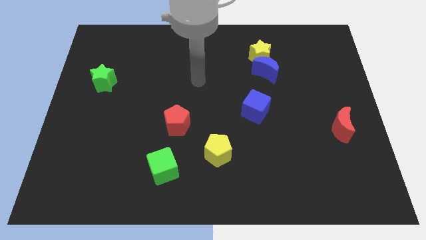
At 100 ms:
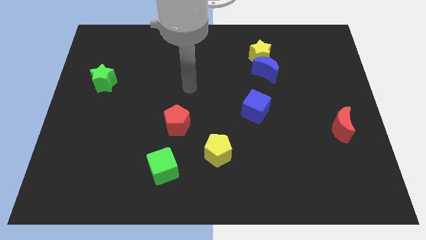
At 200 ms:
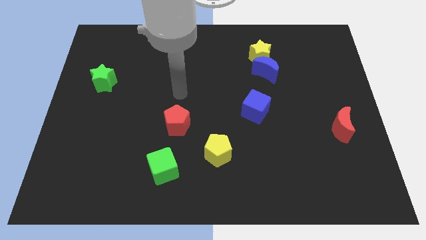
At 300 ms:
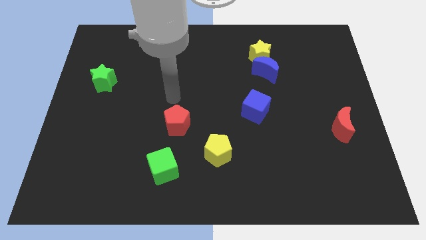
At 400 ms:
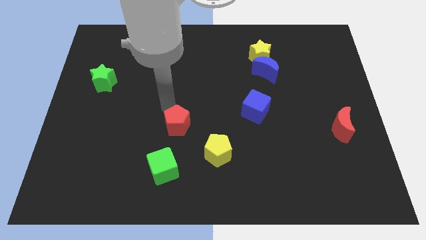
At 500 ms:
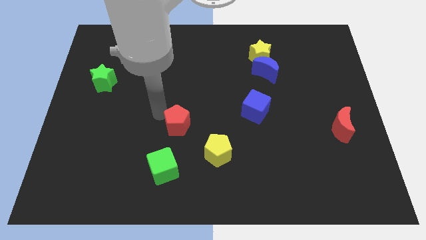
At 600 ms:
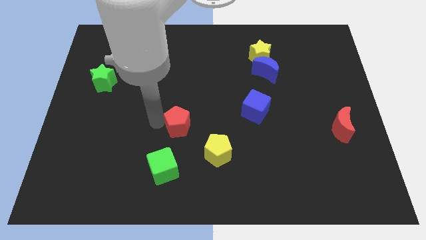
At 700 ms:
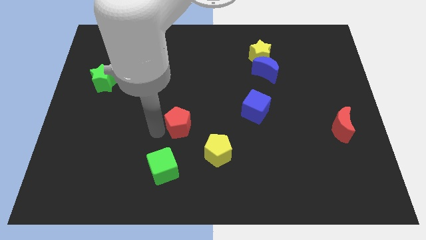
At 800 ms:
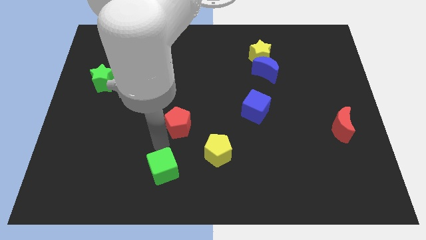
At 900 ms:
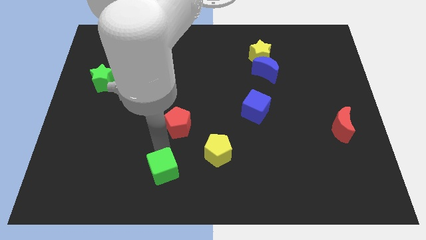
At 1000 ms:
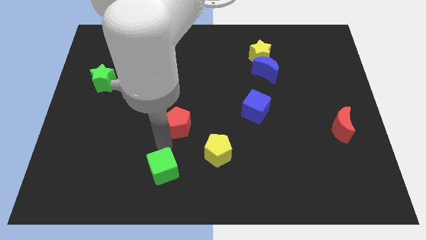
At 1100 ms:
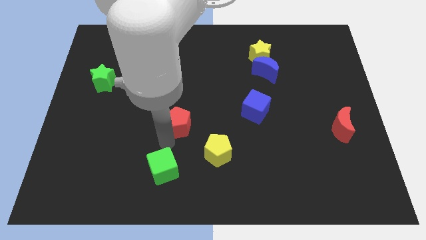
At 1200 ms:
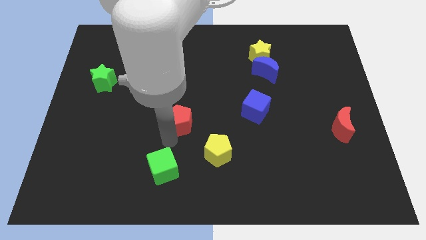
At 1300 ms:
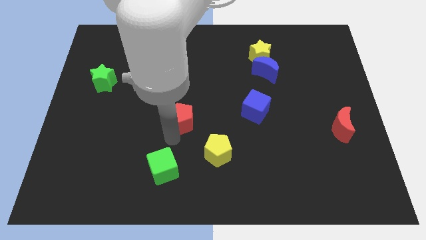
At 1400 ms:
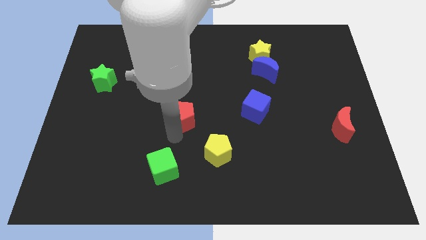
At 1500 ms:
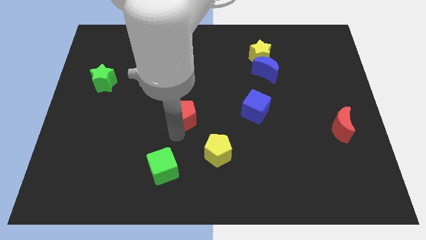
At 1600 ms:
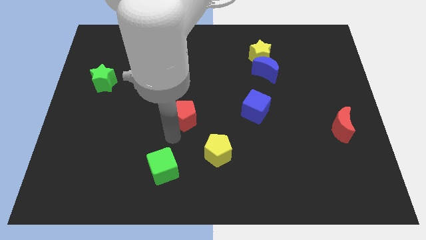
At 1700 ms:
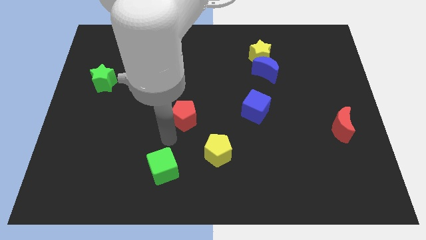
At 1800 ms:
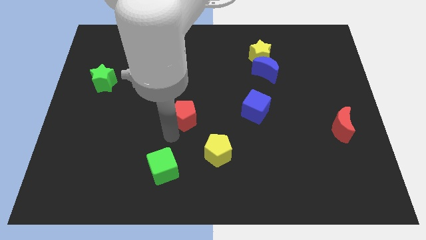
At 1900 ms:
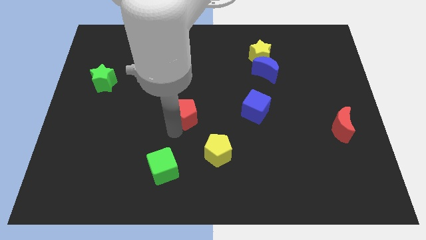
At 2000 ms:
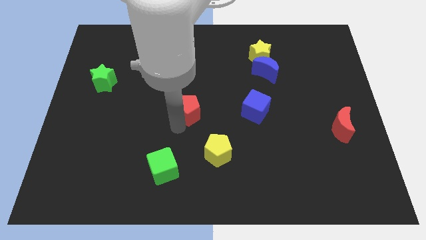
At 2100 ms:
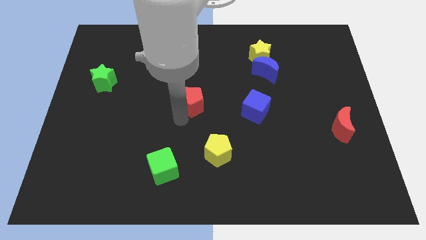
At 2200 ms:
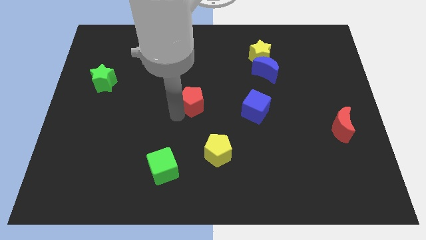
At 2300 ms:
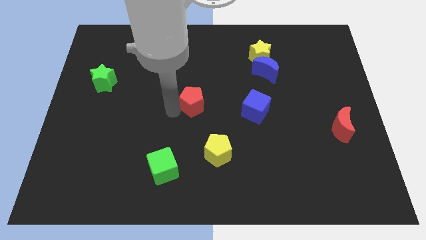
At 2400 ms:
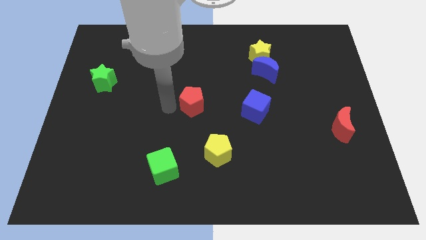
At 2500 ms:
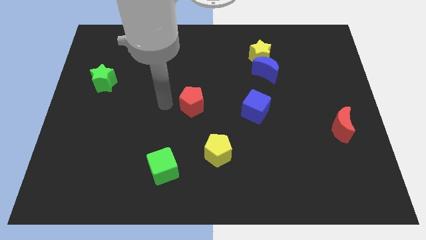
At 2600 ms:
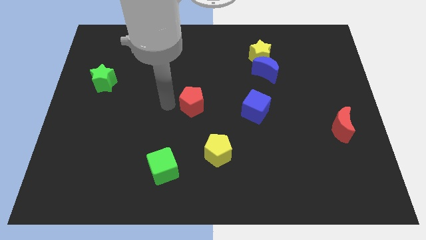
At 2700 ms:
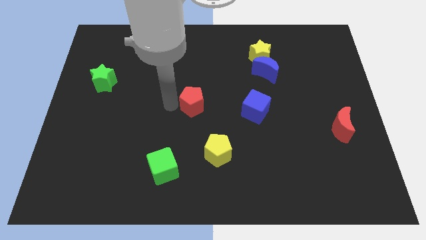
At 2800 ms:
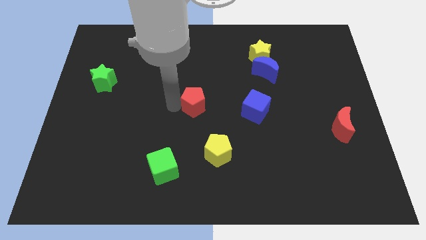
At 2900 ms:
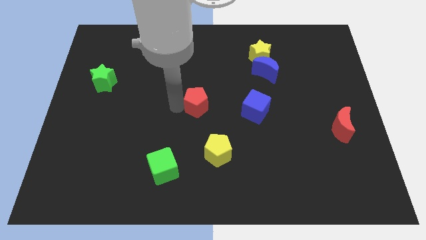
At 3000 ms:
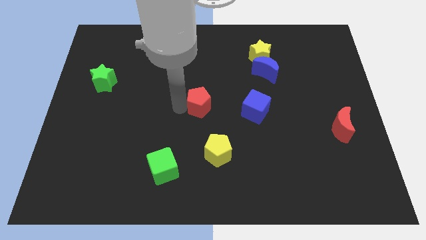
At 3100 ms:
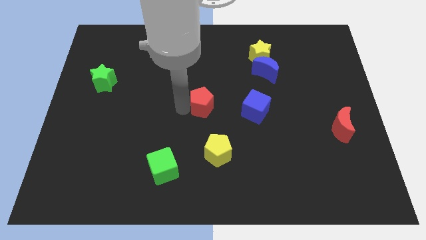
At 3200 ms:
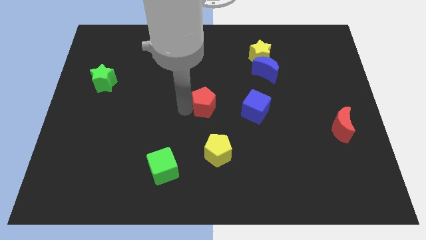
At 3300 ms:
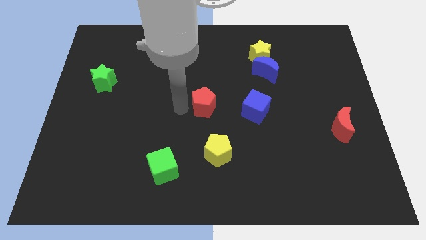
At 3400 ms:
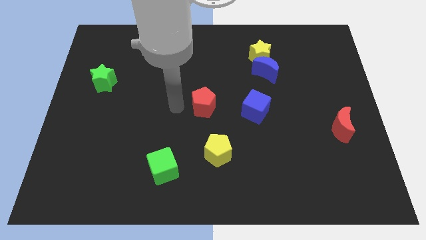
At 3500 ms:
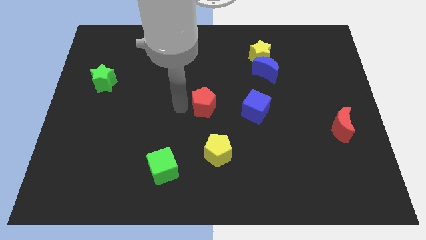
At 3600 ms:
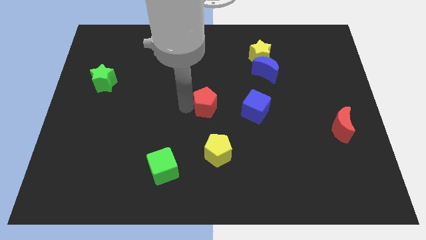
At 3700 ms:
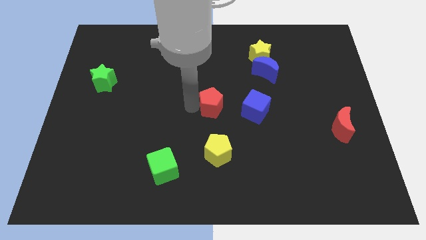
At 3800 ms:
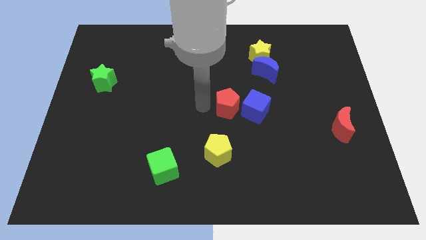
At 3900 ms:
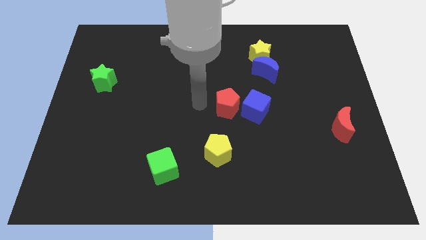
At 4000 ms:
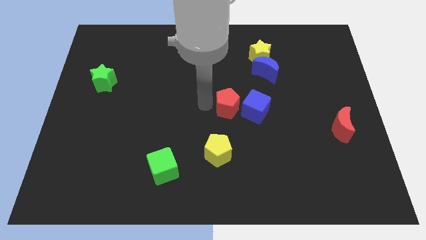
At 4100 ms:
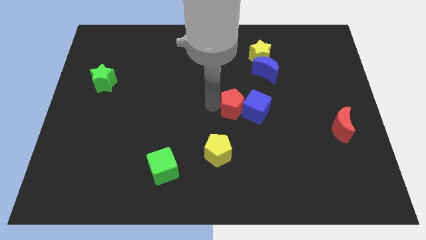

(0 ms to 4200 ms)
push the red pentagon to the blue cube

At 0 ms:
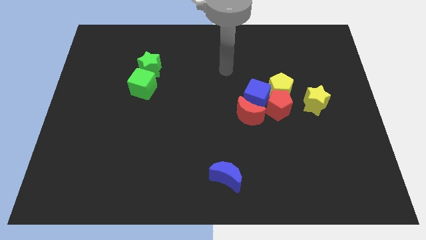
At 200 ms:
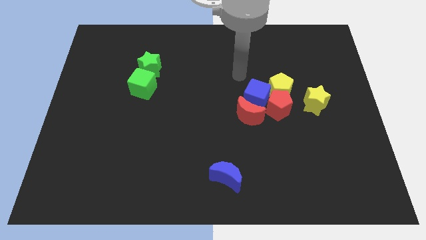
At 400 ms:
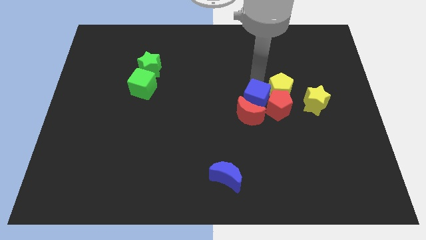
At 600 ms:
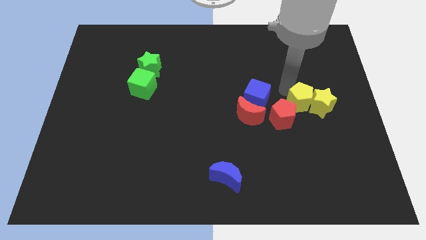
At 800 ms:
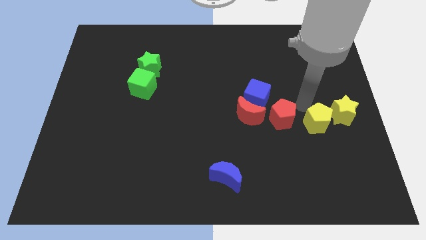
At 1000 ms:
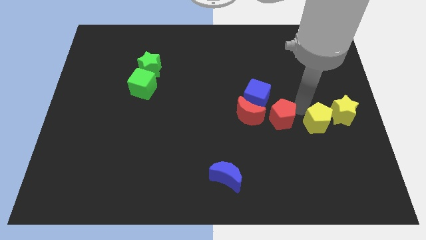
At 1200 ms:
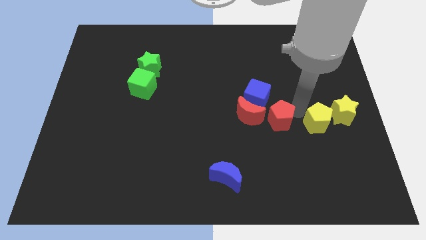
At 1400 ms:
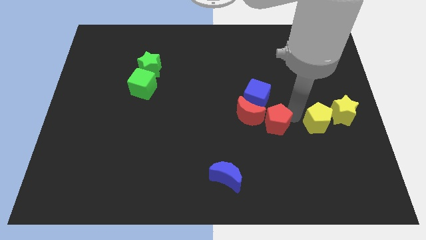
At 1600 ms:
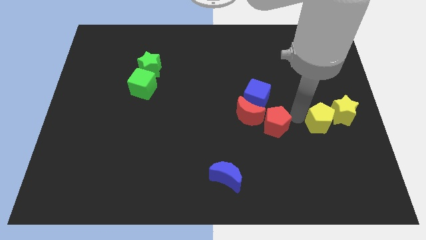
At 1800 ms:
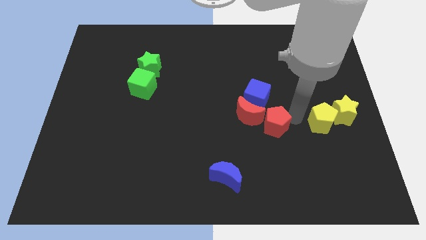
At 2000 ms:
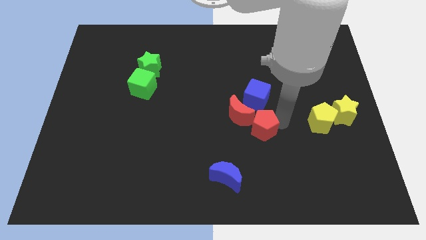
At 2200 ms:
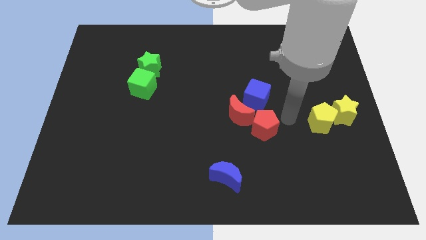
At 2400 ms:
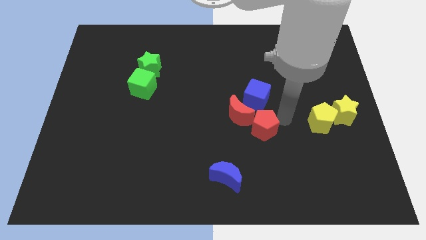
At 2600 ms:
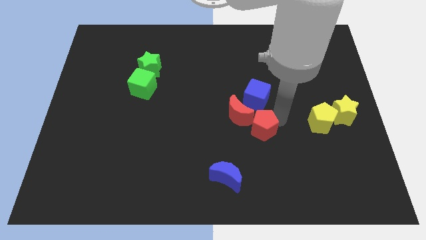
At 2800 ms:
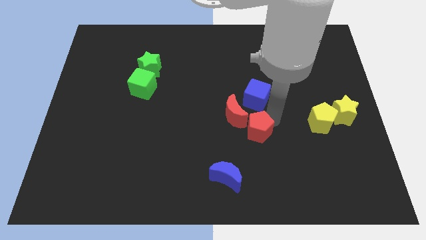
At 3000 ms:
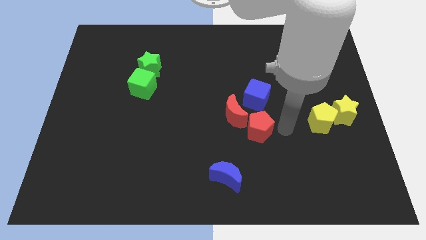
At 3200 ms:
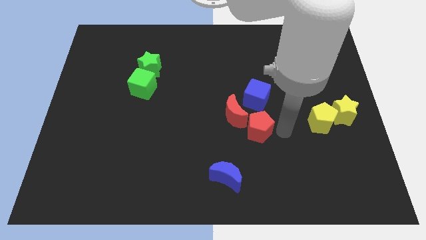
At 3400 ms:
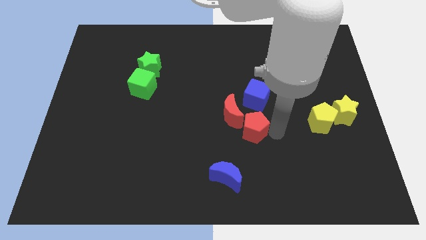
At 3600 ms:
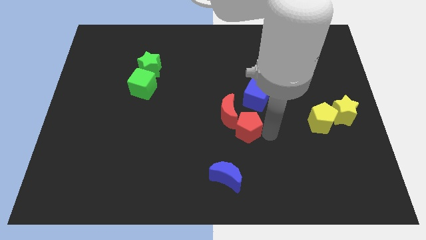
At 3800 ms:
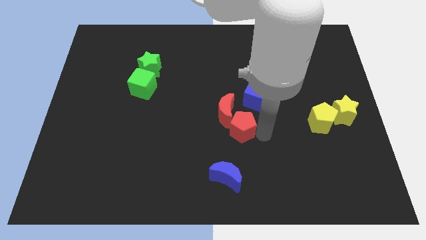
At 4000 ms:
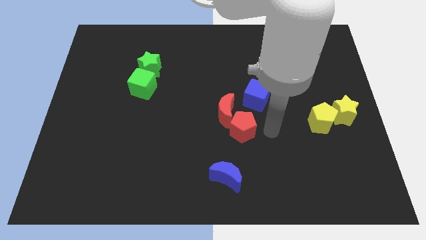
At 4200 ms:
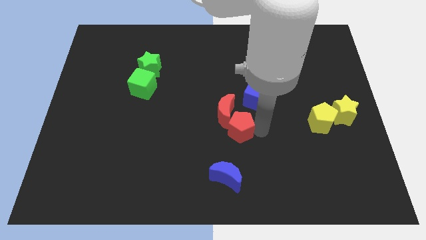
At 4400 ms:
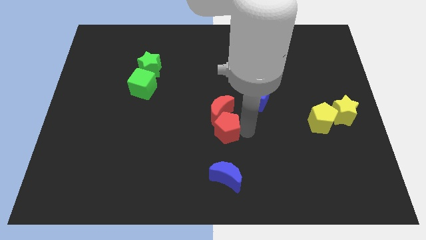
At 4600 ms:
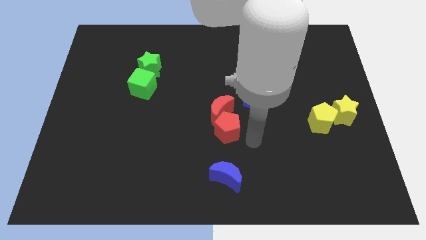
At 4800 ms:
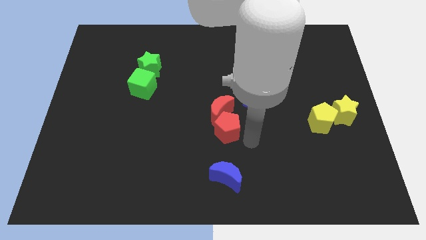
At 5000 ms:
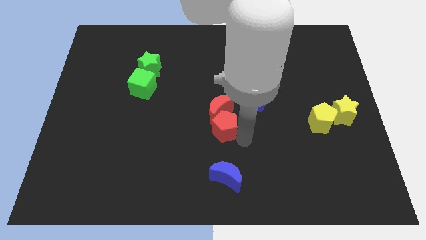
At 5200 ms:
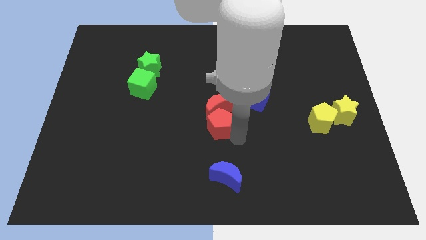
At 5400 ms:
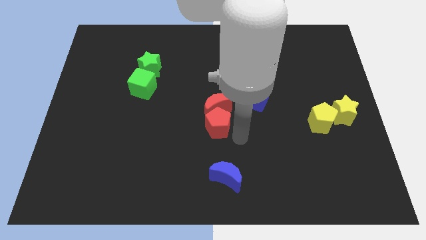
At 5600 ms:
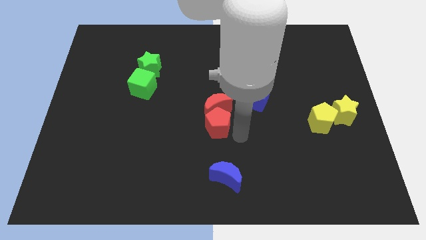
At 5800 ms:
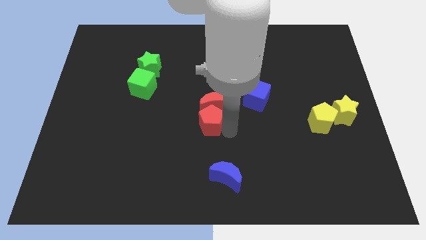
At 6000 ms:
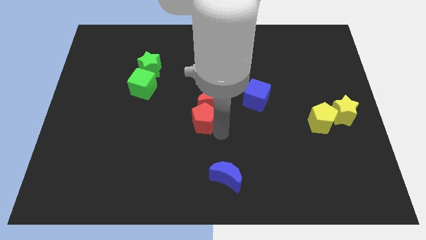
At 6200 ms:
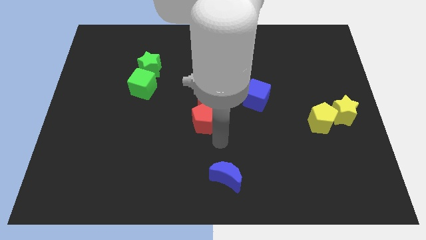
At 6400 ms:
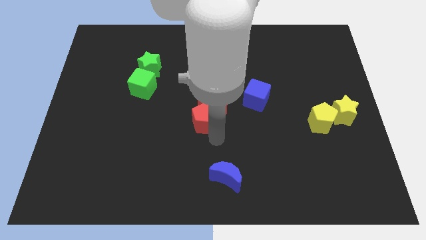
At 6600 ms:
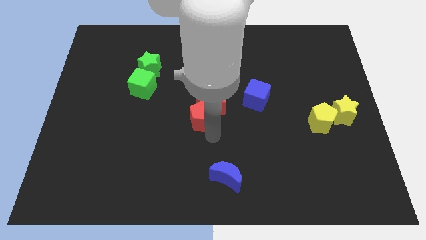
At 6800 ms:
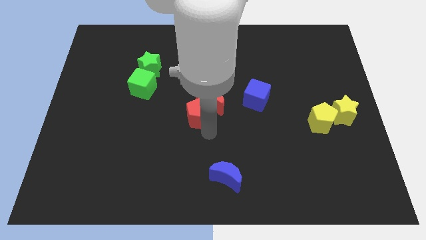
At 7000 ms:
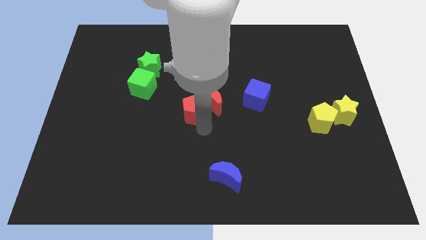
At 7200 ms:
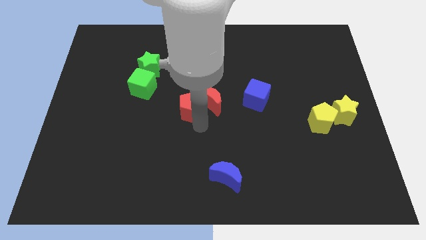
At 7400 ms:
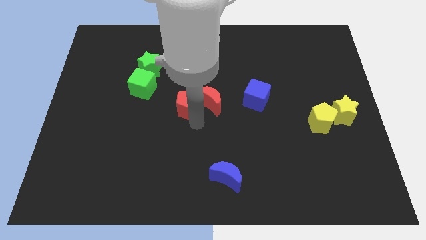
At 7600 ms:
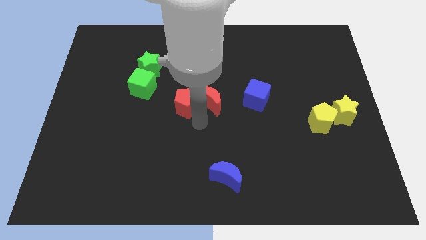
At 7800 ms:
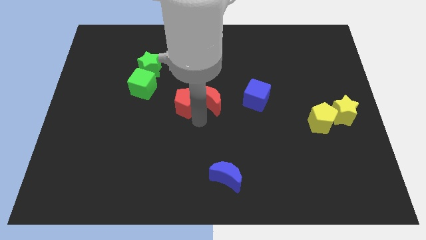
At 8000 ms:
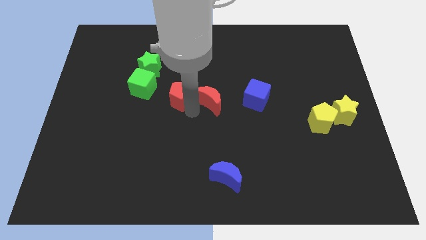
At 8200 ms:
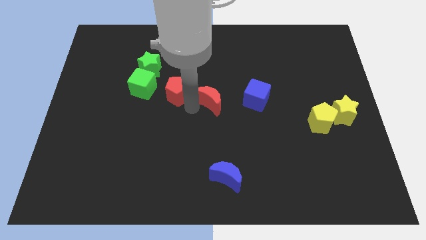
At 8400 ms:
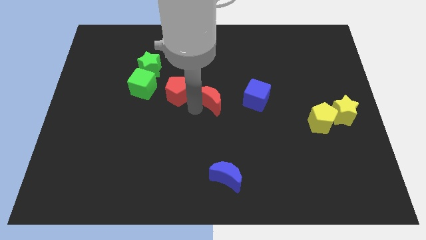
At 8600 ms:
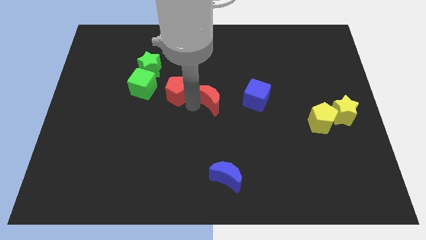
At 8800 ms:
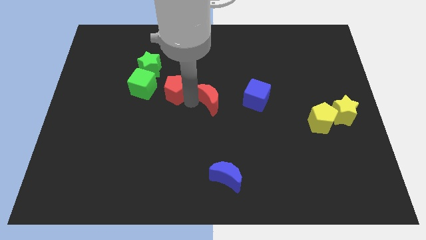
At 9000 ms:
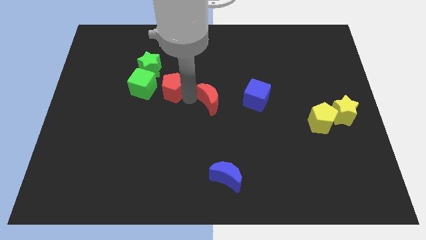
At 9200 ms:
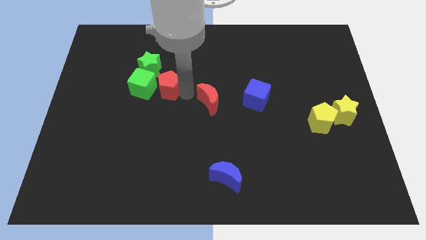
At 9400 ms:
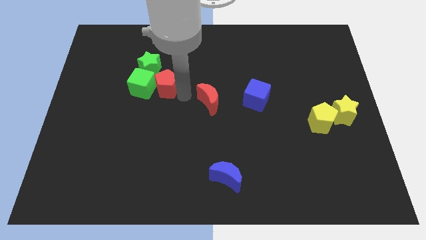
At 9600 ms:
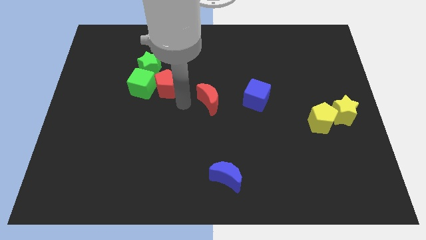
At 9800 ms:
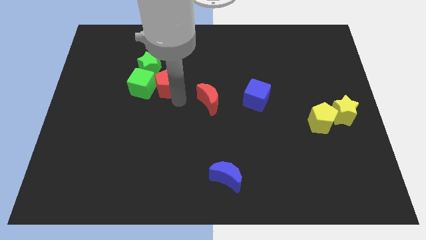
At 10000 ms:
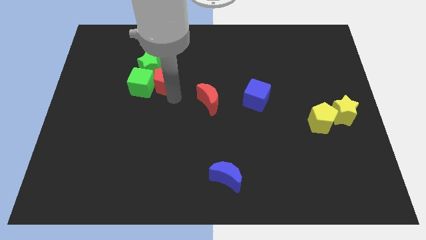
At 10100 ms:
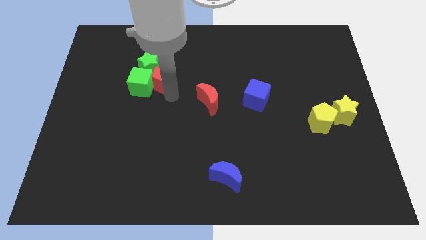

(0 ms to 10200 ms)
push the red pentagon next to the green star
